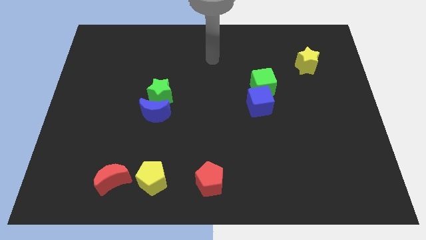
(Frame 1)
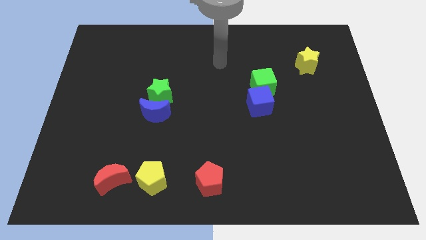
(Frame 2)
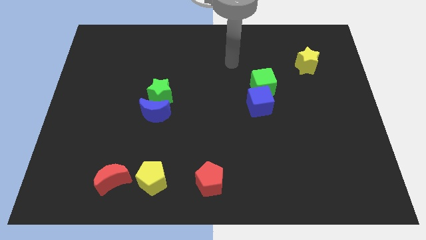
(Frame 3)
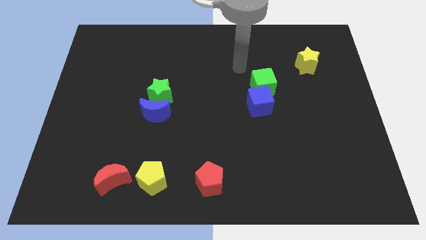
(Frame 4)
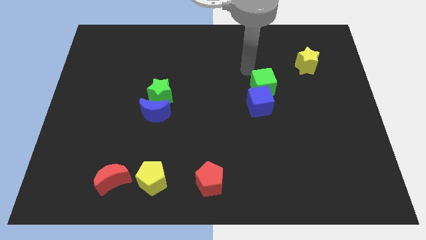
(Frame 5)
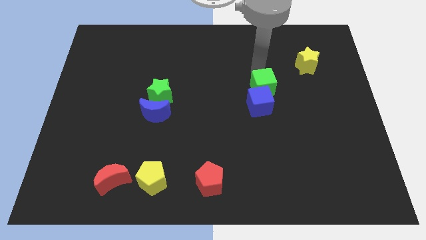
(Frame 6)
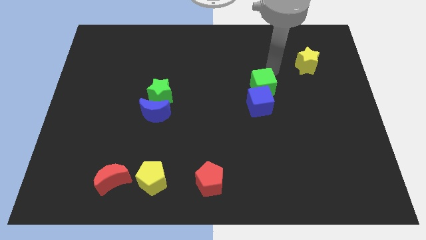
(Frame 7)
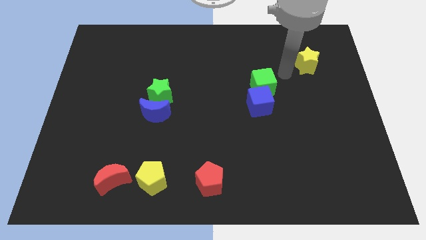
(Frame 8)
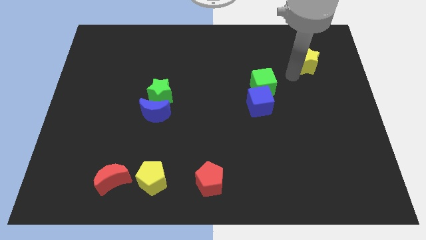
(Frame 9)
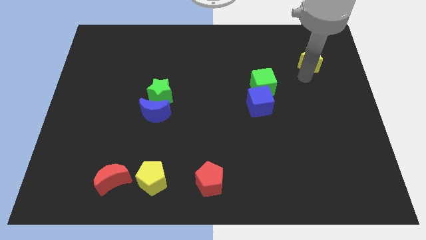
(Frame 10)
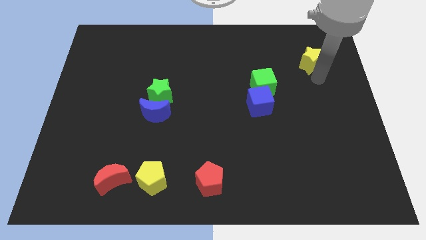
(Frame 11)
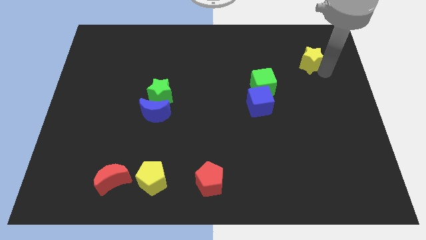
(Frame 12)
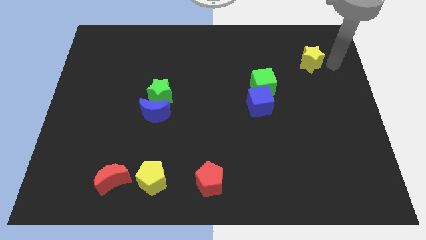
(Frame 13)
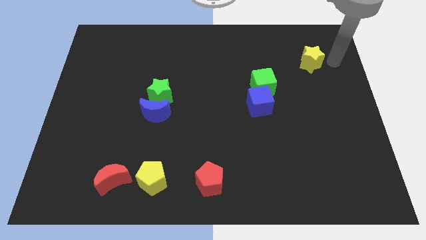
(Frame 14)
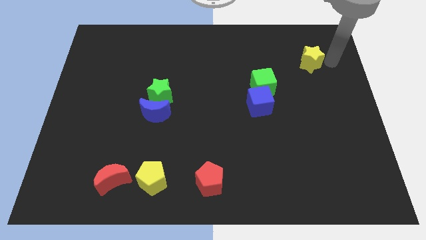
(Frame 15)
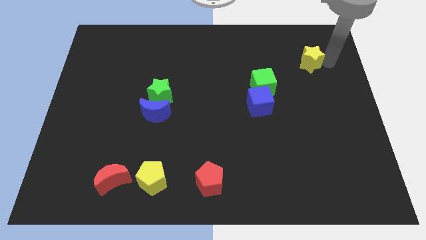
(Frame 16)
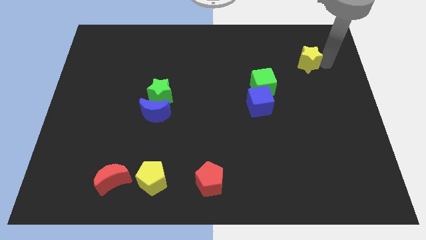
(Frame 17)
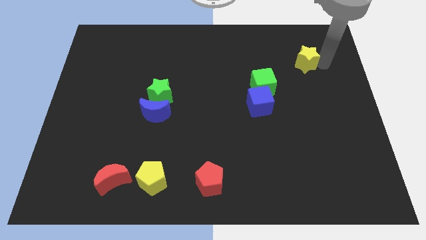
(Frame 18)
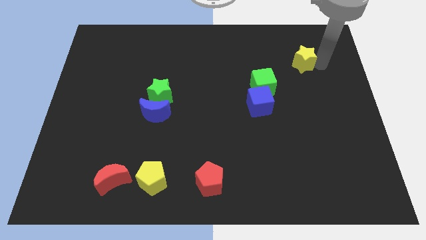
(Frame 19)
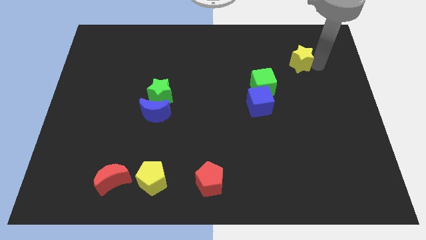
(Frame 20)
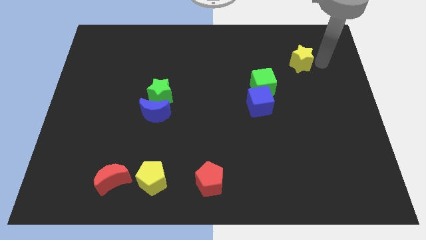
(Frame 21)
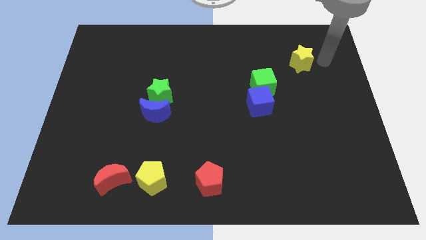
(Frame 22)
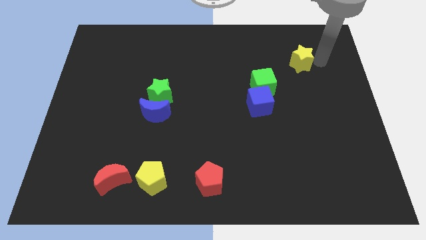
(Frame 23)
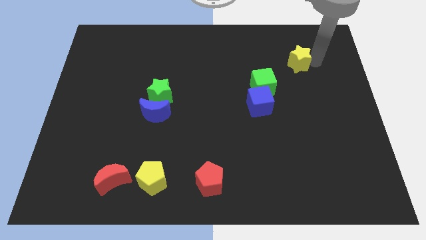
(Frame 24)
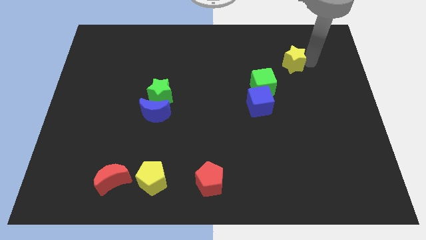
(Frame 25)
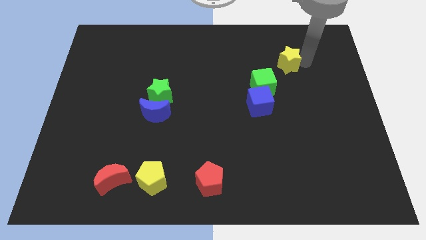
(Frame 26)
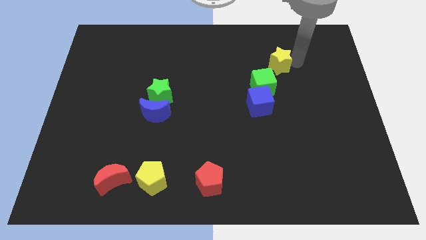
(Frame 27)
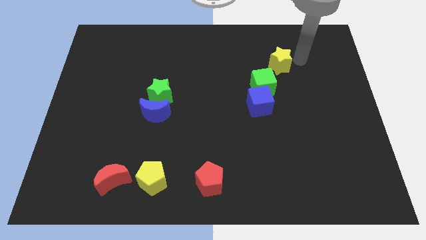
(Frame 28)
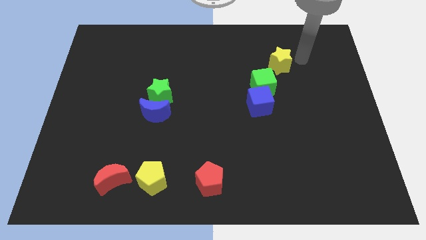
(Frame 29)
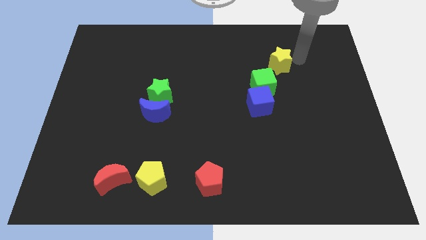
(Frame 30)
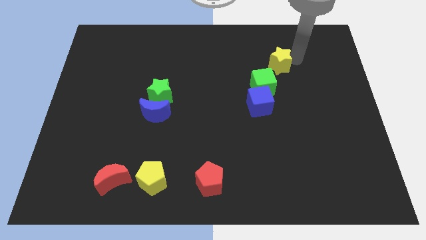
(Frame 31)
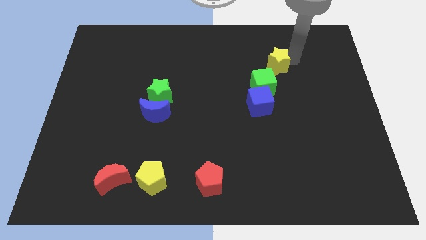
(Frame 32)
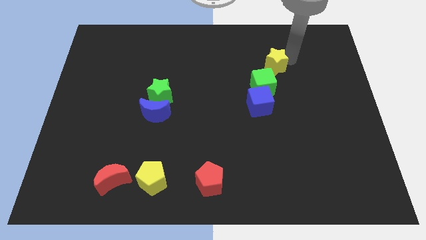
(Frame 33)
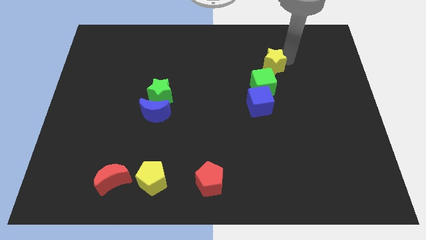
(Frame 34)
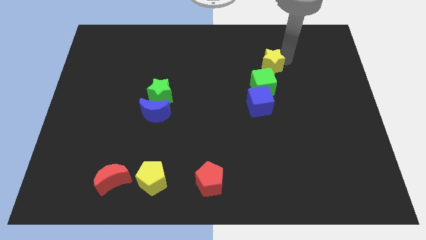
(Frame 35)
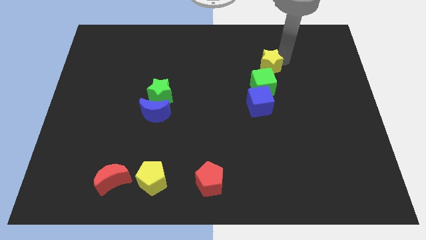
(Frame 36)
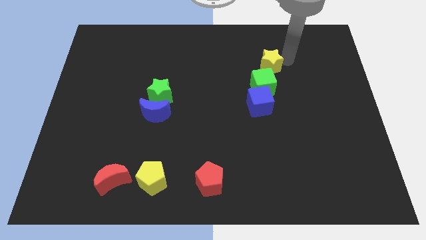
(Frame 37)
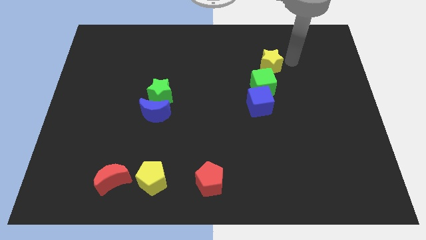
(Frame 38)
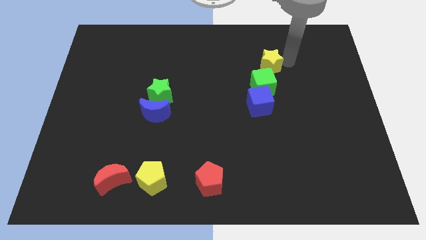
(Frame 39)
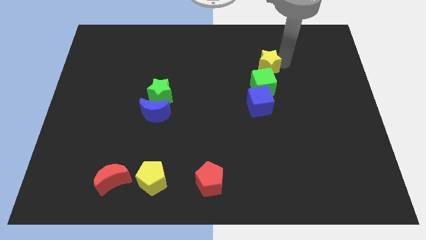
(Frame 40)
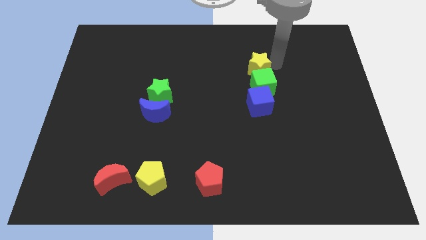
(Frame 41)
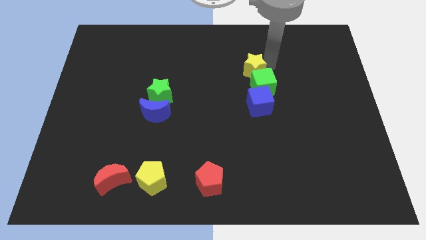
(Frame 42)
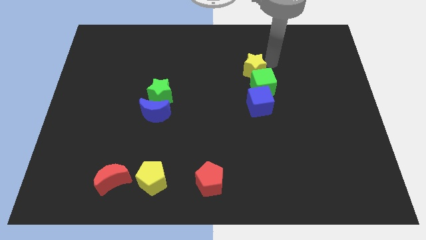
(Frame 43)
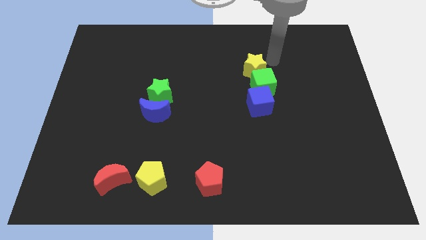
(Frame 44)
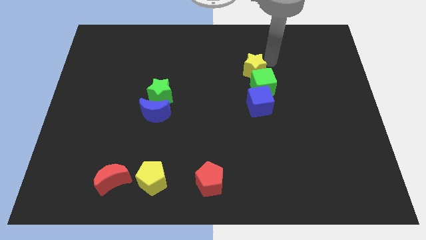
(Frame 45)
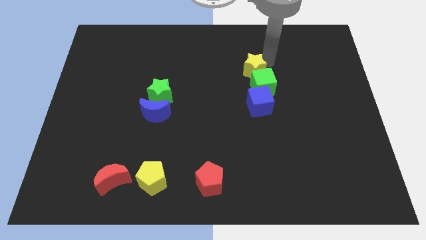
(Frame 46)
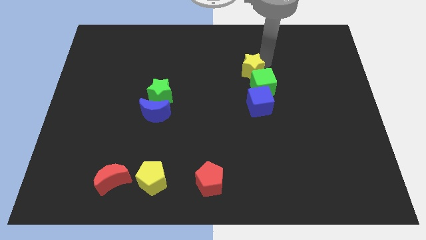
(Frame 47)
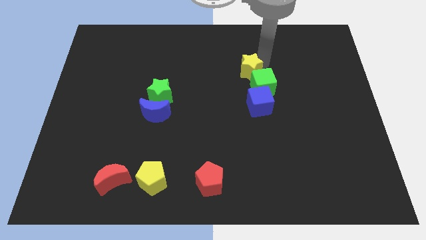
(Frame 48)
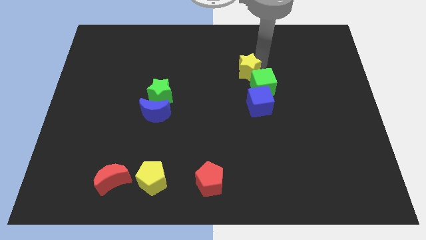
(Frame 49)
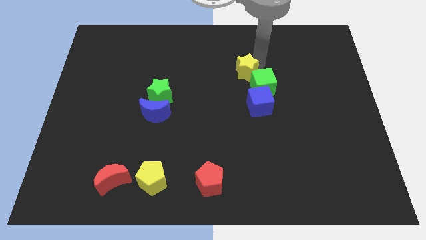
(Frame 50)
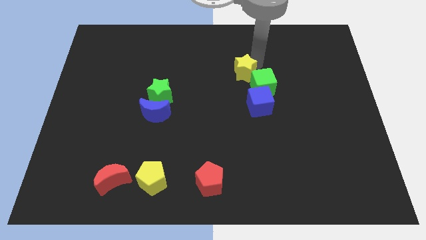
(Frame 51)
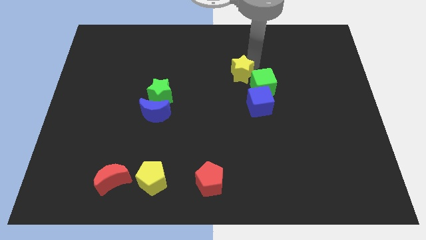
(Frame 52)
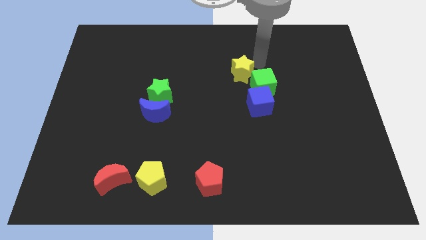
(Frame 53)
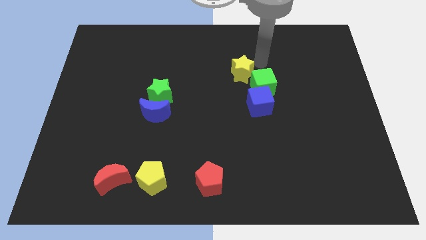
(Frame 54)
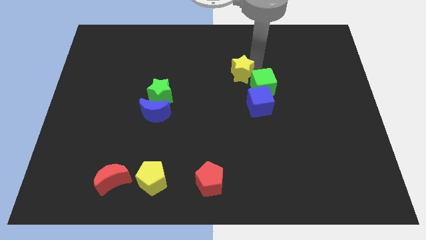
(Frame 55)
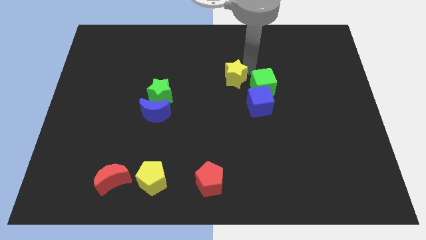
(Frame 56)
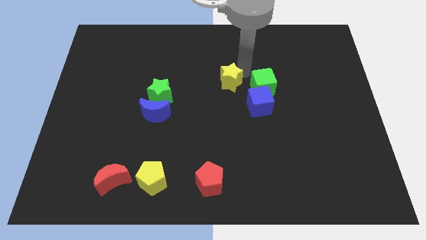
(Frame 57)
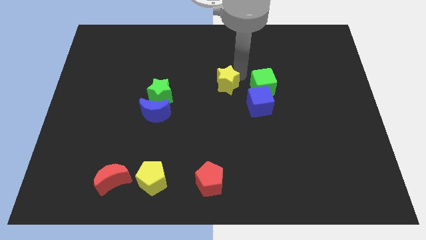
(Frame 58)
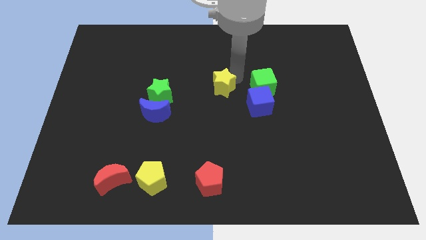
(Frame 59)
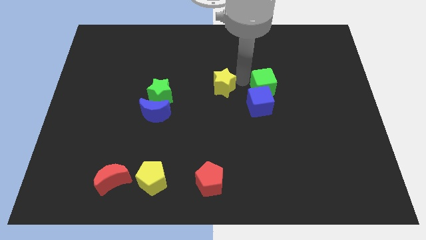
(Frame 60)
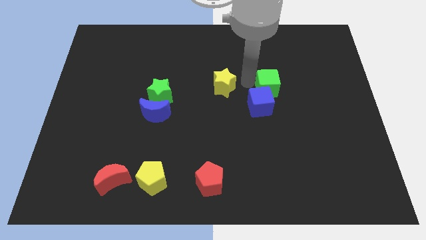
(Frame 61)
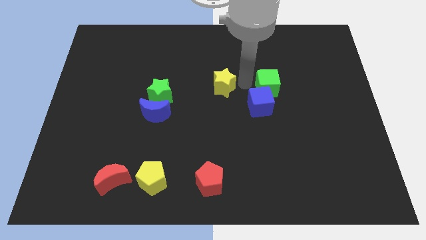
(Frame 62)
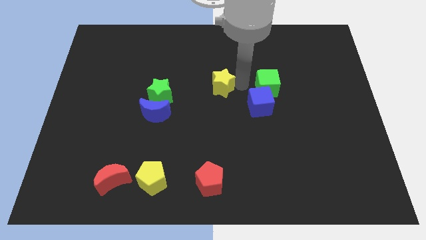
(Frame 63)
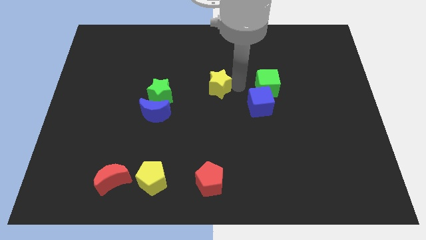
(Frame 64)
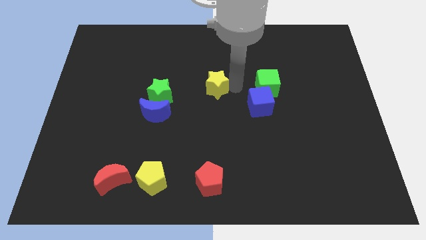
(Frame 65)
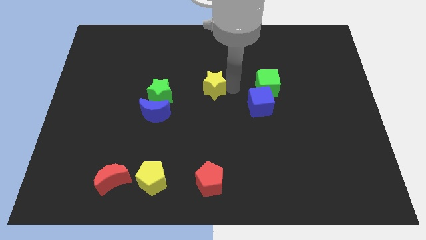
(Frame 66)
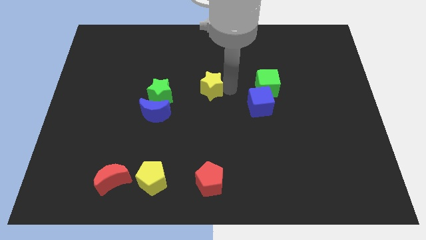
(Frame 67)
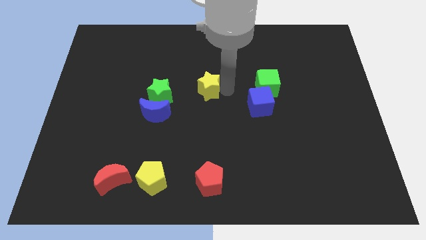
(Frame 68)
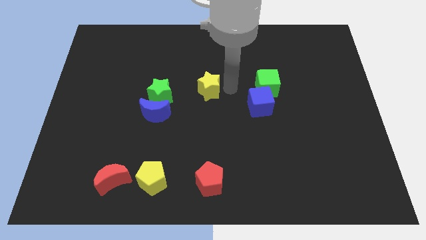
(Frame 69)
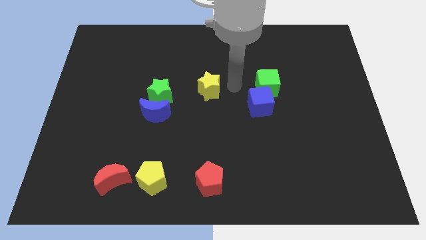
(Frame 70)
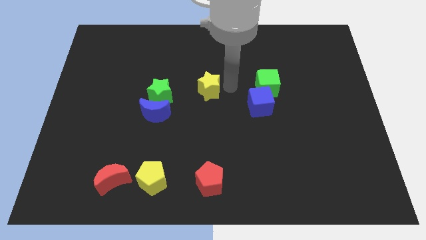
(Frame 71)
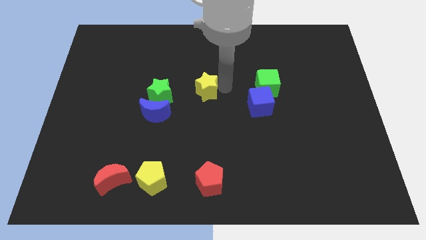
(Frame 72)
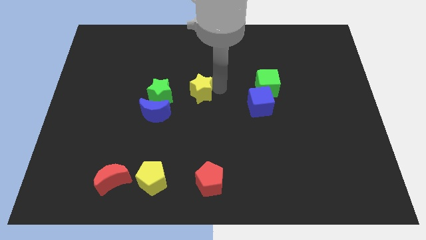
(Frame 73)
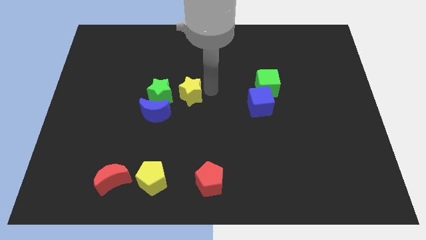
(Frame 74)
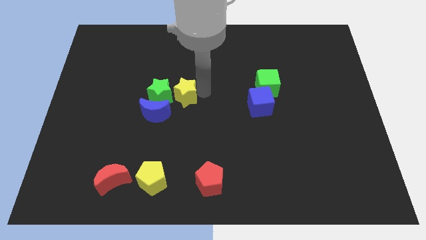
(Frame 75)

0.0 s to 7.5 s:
slide the yellow star close to the green star
